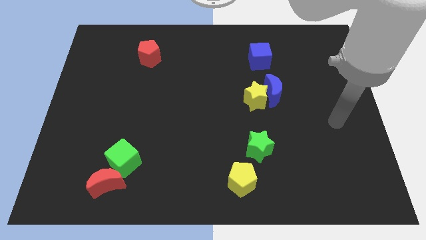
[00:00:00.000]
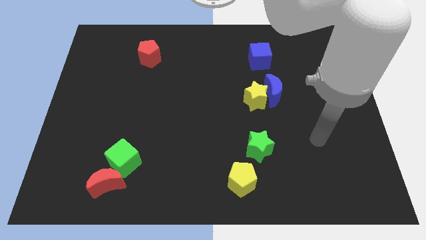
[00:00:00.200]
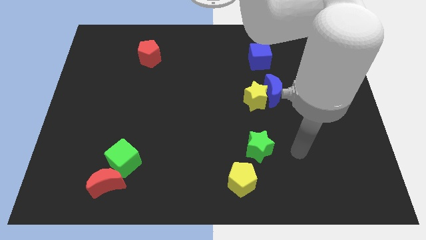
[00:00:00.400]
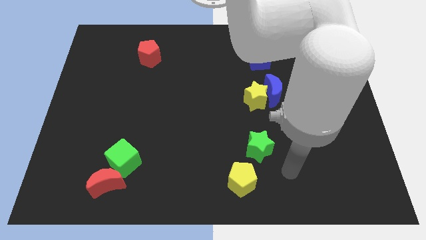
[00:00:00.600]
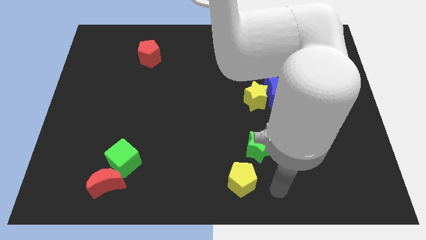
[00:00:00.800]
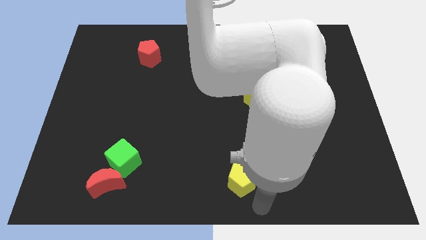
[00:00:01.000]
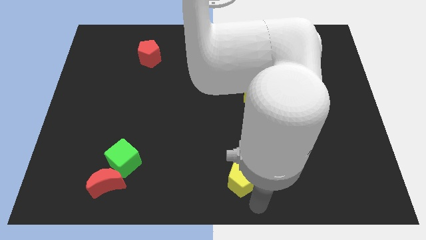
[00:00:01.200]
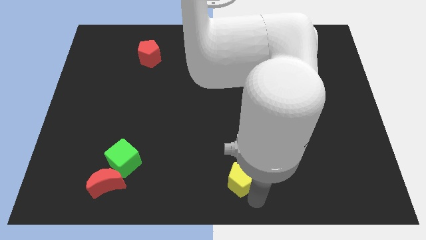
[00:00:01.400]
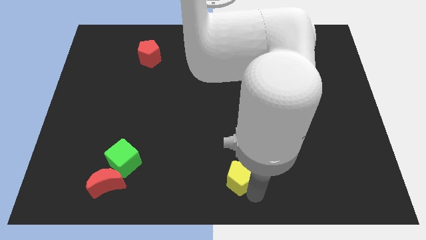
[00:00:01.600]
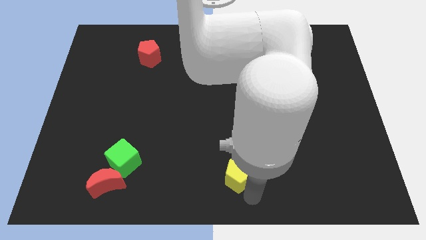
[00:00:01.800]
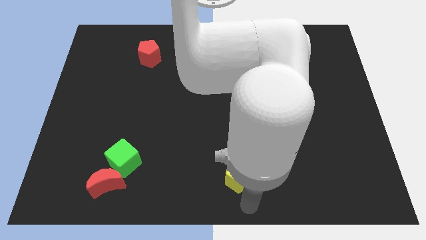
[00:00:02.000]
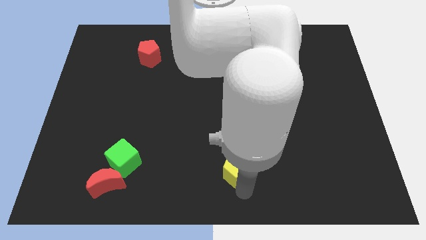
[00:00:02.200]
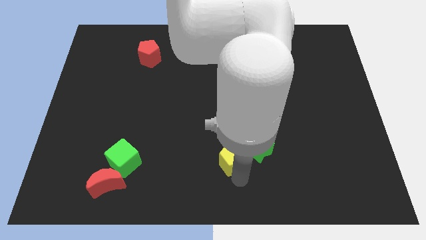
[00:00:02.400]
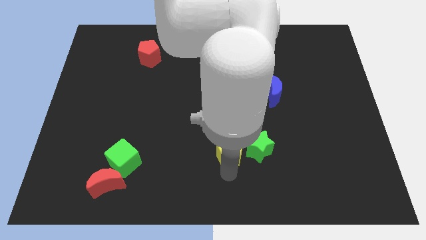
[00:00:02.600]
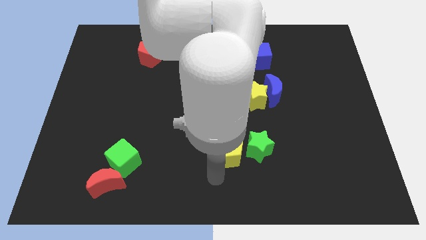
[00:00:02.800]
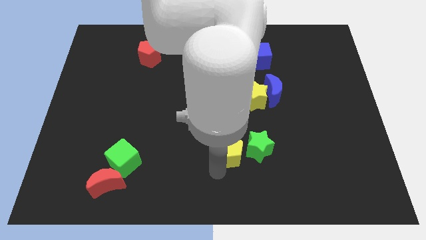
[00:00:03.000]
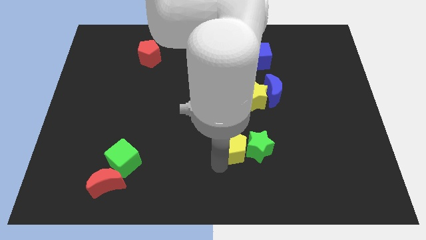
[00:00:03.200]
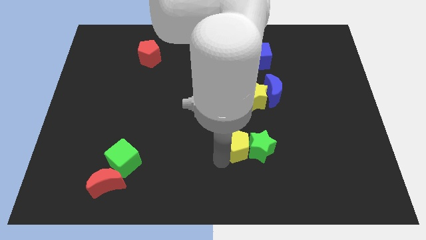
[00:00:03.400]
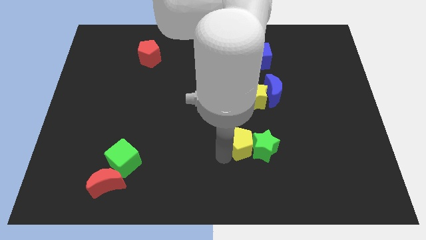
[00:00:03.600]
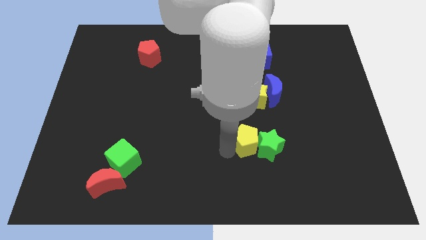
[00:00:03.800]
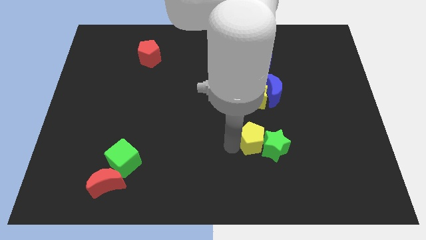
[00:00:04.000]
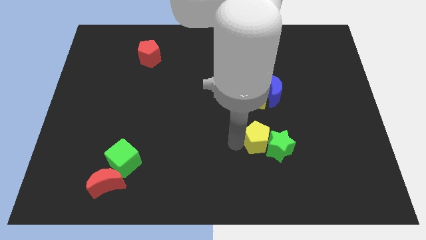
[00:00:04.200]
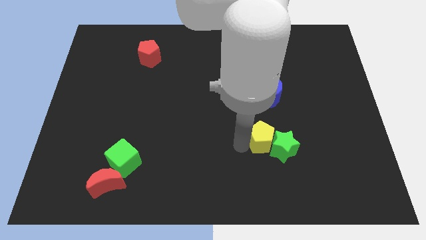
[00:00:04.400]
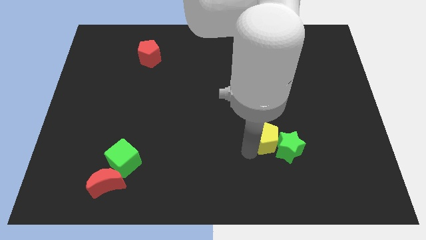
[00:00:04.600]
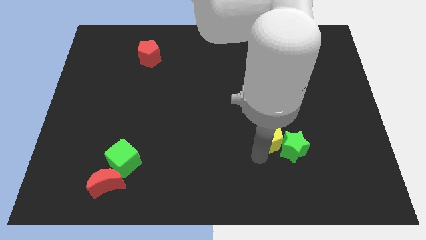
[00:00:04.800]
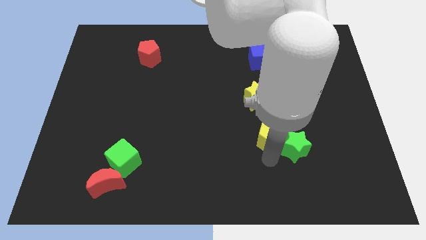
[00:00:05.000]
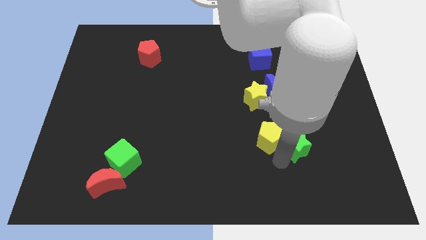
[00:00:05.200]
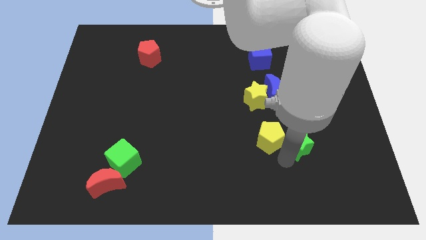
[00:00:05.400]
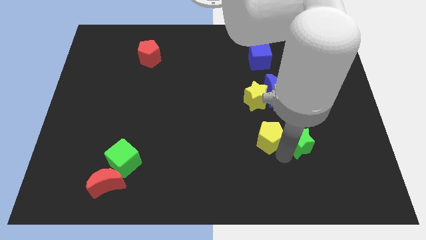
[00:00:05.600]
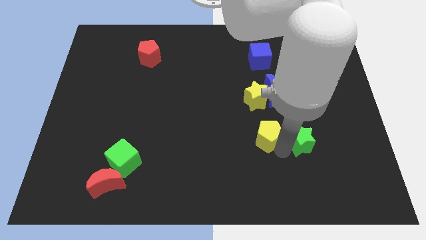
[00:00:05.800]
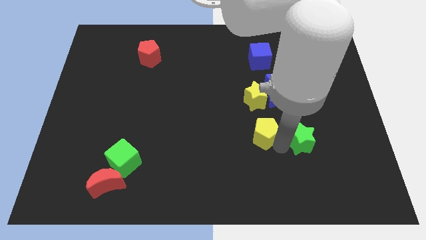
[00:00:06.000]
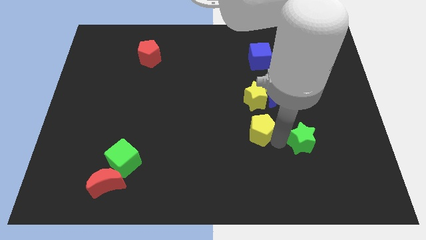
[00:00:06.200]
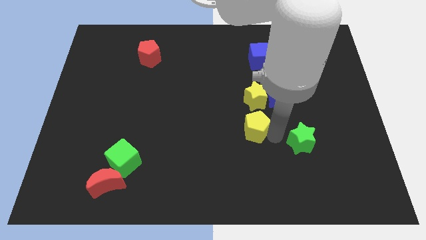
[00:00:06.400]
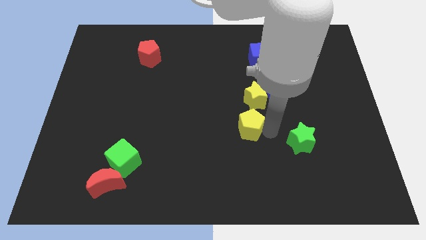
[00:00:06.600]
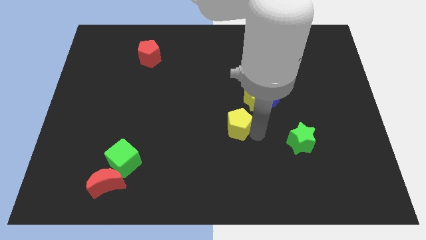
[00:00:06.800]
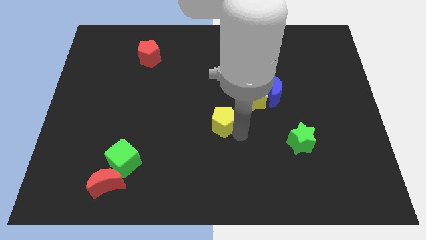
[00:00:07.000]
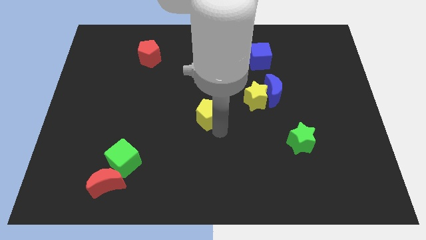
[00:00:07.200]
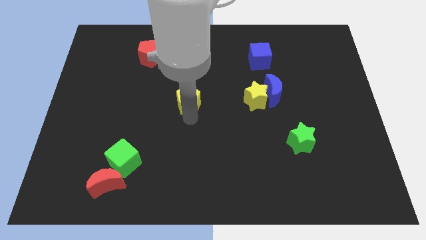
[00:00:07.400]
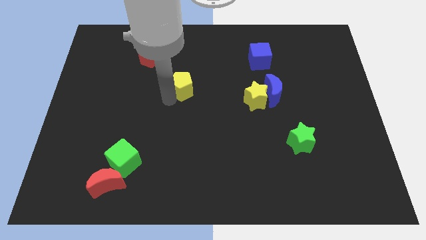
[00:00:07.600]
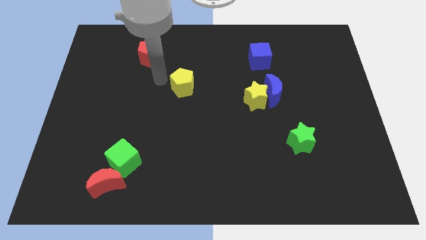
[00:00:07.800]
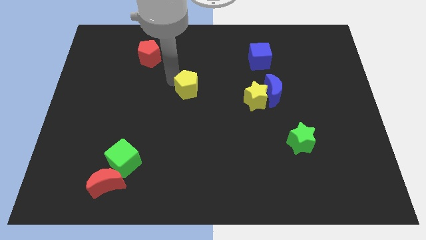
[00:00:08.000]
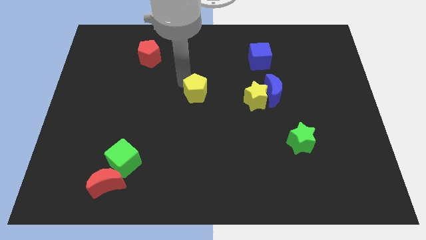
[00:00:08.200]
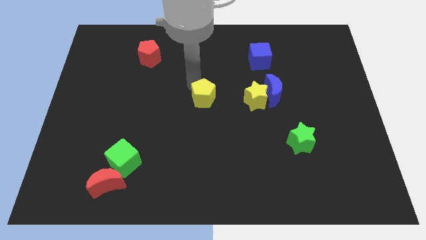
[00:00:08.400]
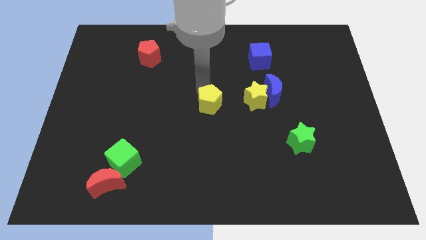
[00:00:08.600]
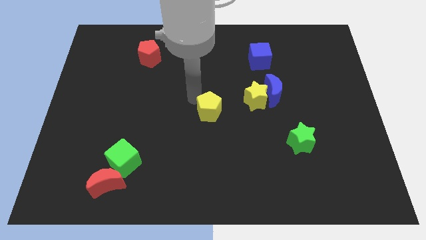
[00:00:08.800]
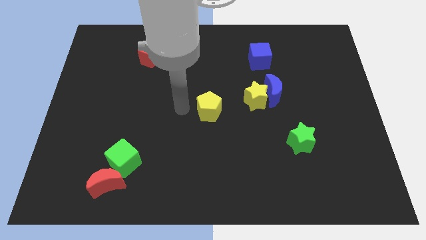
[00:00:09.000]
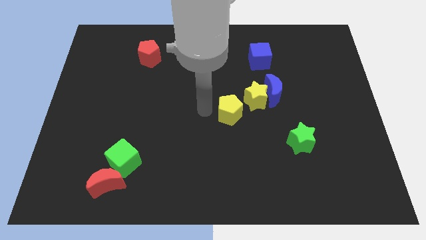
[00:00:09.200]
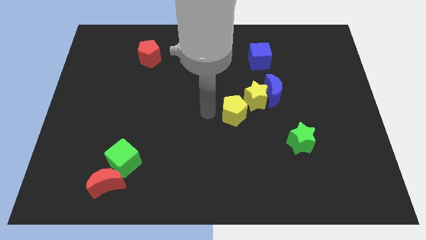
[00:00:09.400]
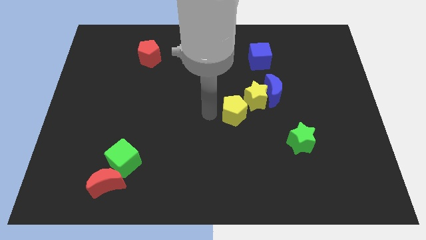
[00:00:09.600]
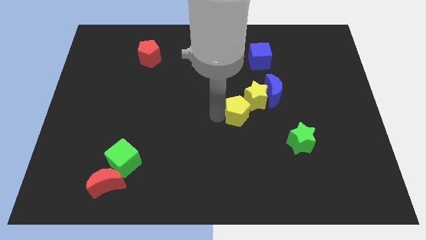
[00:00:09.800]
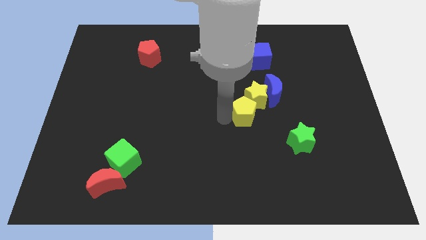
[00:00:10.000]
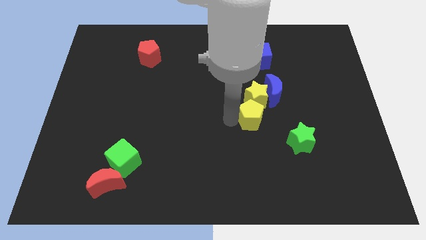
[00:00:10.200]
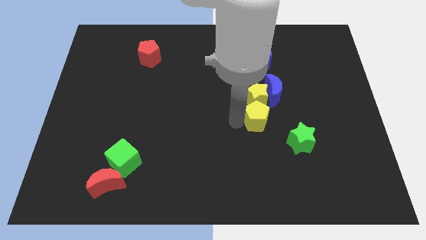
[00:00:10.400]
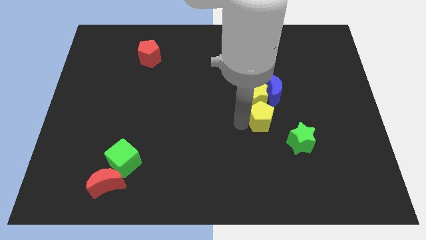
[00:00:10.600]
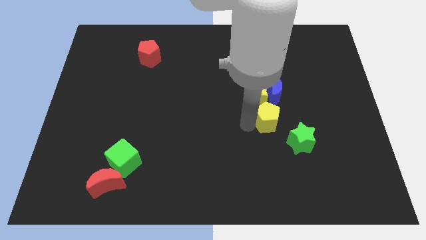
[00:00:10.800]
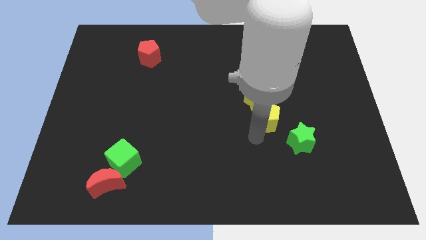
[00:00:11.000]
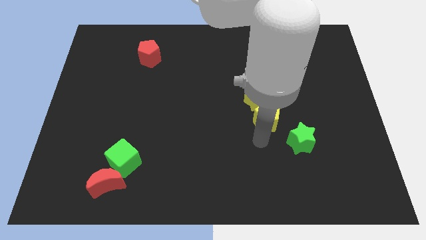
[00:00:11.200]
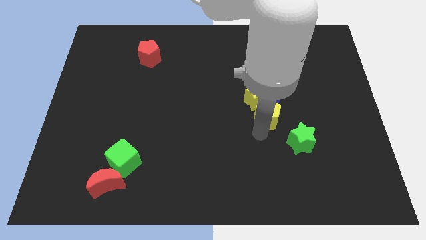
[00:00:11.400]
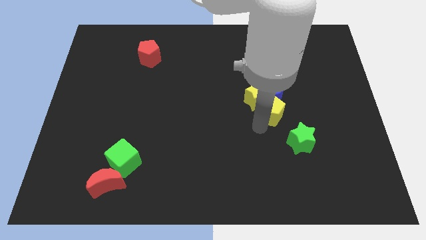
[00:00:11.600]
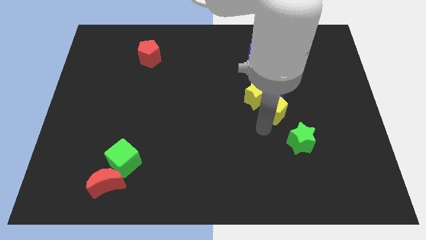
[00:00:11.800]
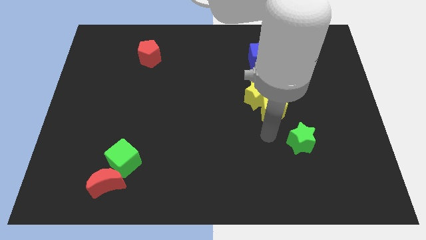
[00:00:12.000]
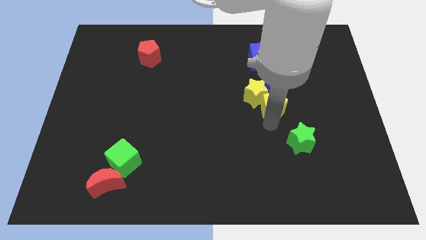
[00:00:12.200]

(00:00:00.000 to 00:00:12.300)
slide the yellow pentagon towards the blue moon

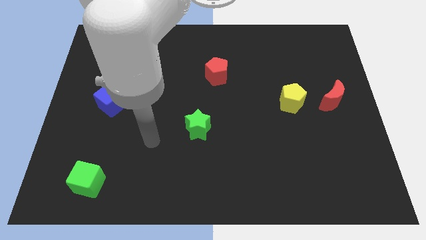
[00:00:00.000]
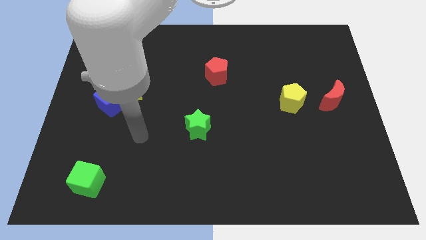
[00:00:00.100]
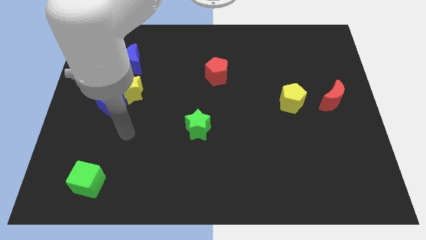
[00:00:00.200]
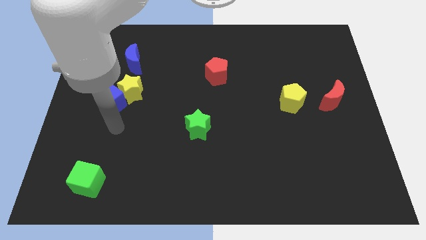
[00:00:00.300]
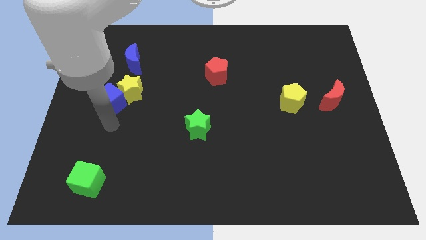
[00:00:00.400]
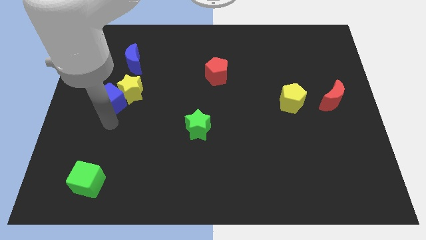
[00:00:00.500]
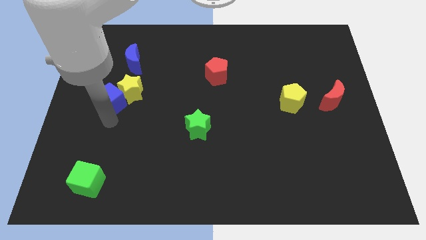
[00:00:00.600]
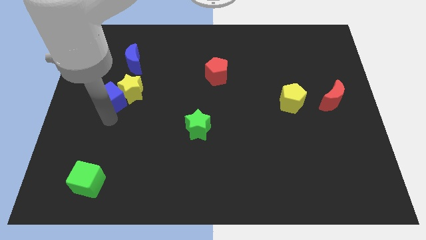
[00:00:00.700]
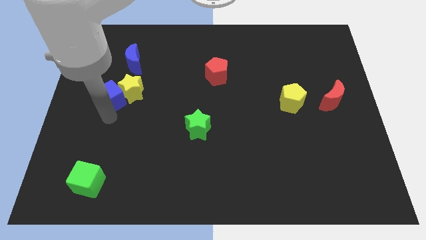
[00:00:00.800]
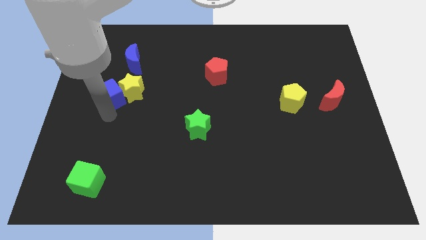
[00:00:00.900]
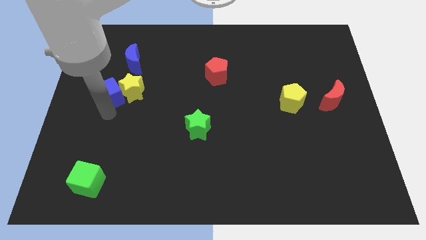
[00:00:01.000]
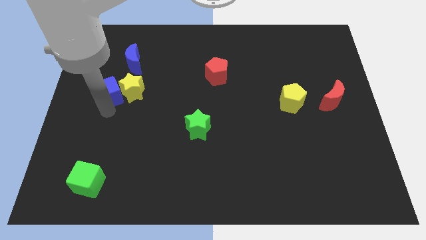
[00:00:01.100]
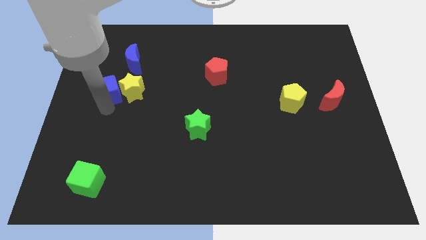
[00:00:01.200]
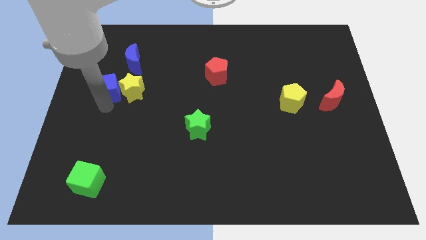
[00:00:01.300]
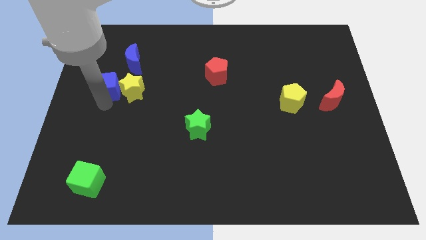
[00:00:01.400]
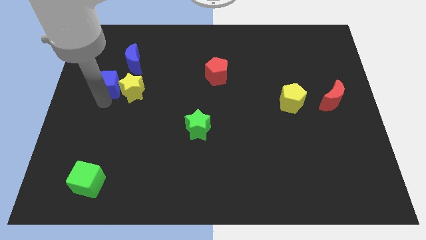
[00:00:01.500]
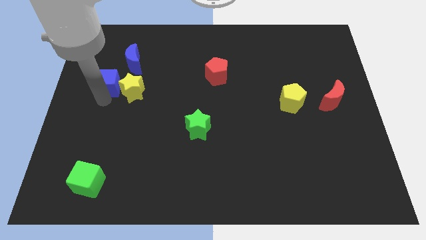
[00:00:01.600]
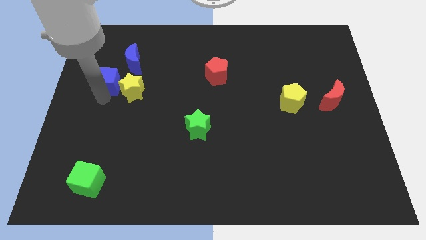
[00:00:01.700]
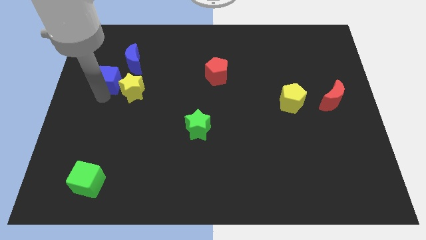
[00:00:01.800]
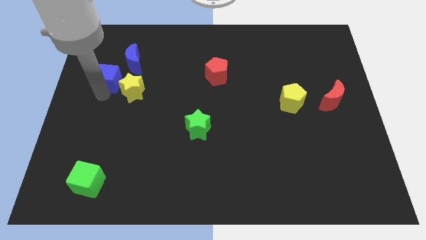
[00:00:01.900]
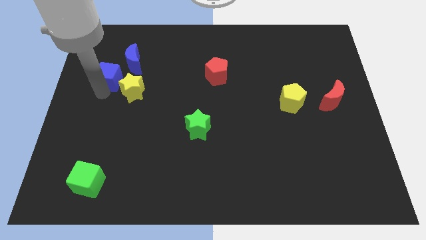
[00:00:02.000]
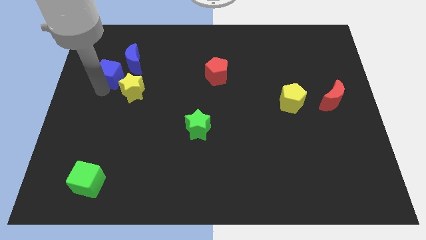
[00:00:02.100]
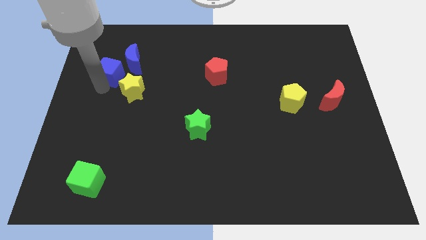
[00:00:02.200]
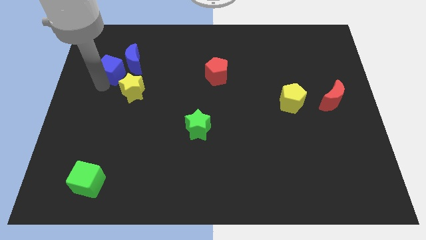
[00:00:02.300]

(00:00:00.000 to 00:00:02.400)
put the blue cube close to the blue moon
